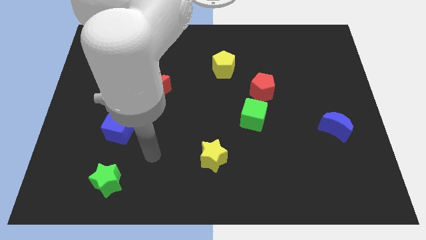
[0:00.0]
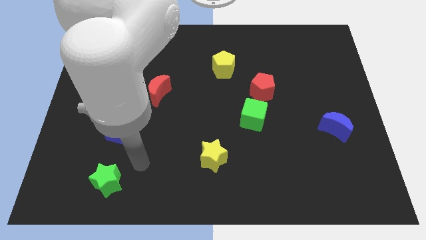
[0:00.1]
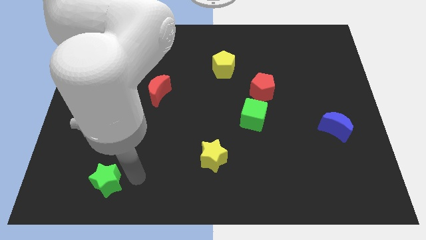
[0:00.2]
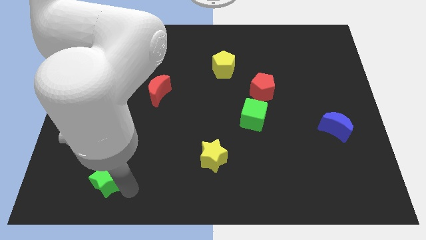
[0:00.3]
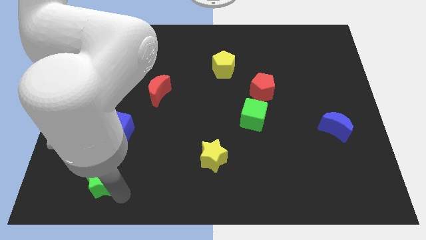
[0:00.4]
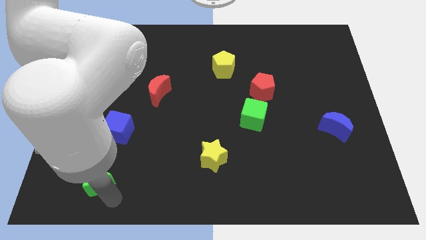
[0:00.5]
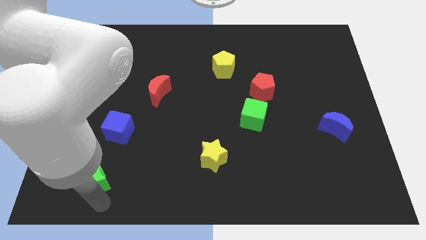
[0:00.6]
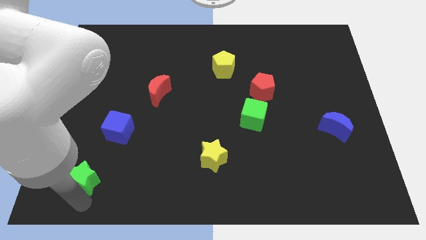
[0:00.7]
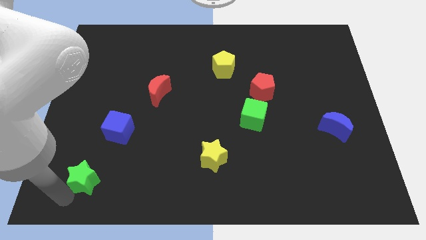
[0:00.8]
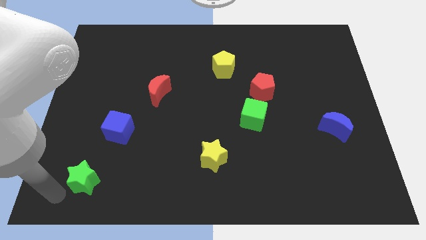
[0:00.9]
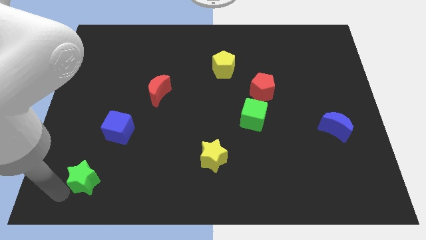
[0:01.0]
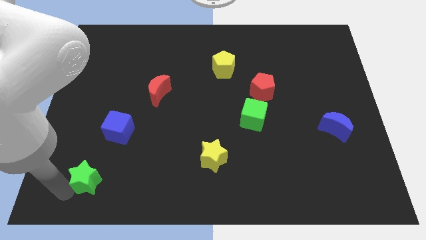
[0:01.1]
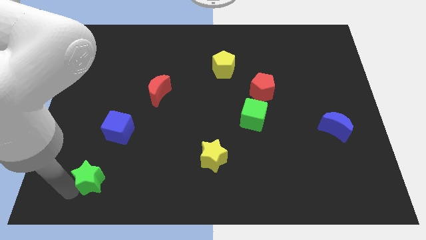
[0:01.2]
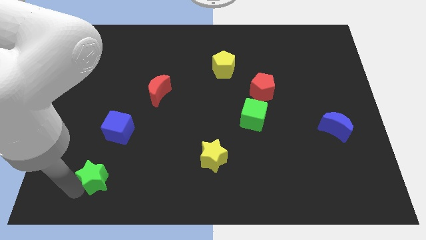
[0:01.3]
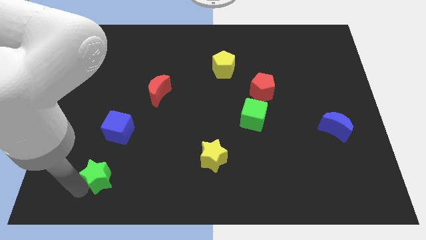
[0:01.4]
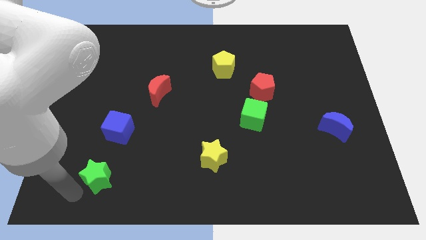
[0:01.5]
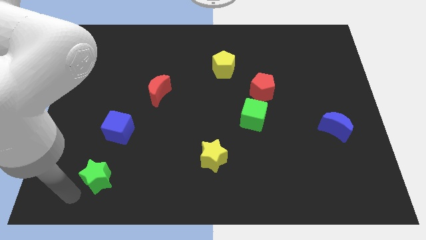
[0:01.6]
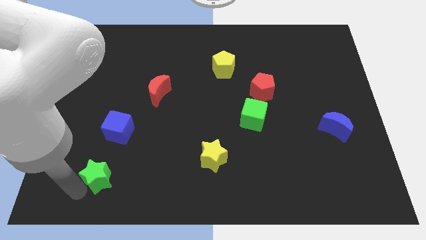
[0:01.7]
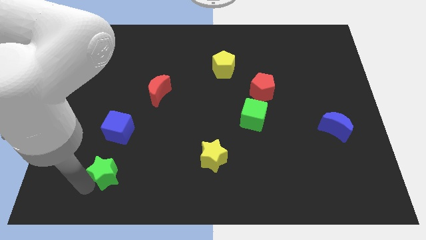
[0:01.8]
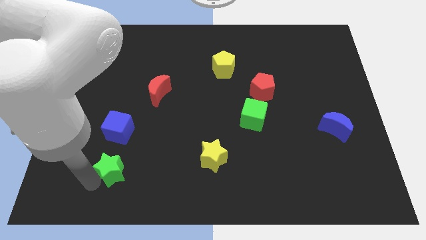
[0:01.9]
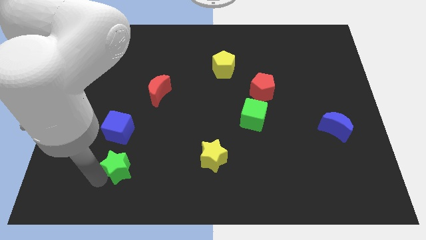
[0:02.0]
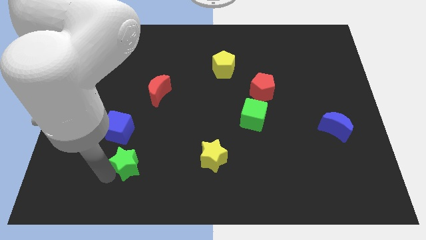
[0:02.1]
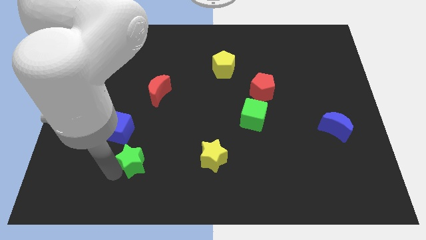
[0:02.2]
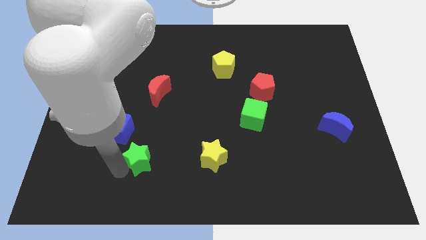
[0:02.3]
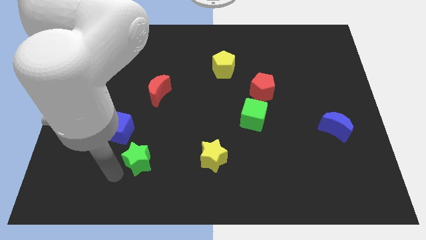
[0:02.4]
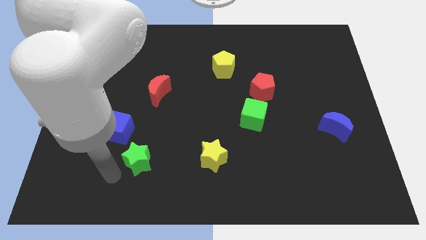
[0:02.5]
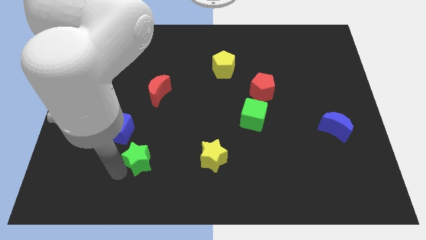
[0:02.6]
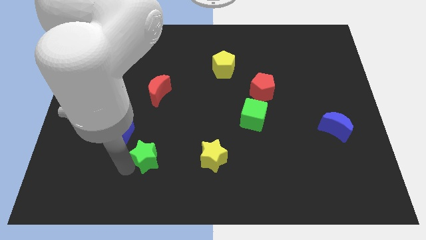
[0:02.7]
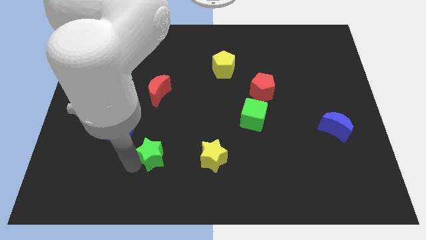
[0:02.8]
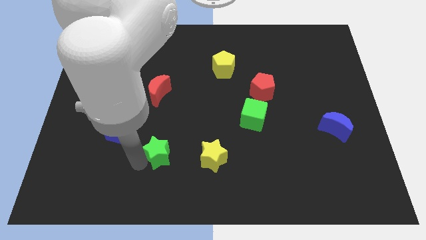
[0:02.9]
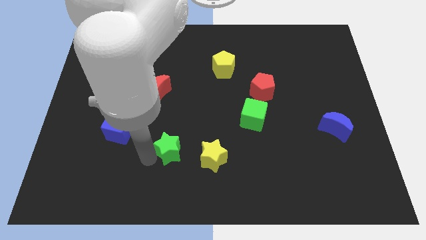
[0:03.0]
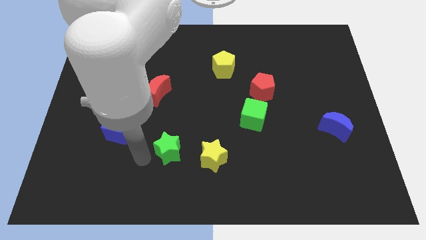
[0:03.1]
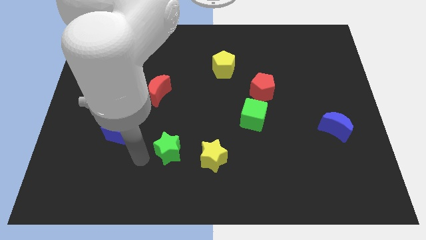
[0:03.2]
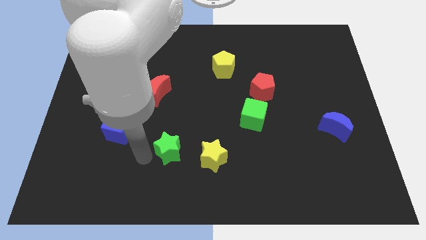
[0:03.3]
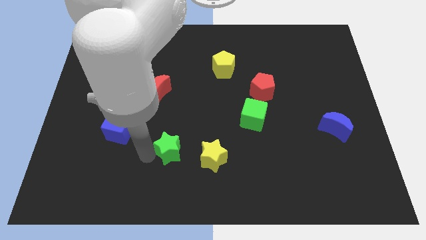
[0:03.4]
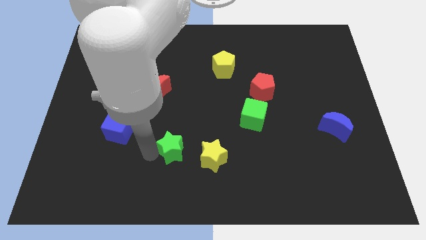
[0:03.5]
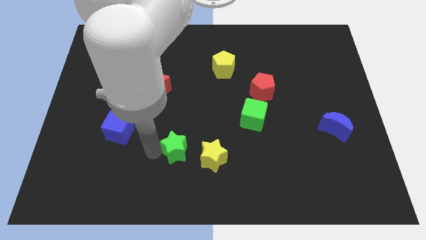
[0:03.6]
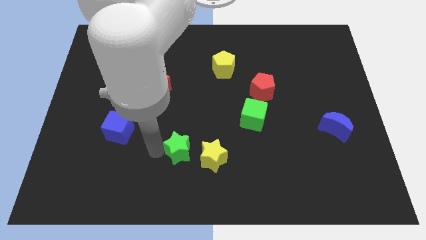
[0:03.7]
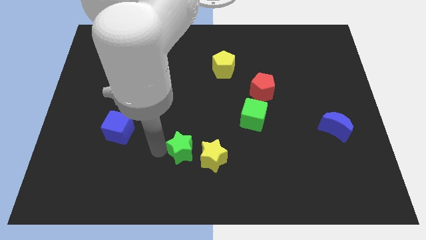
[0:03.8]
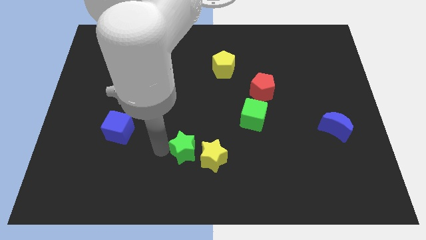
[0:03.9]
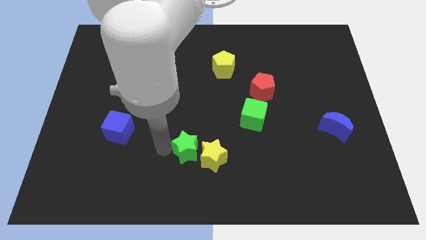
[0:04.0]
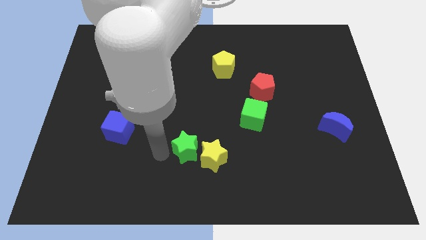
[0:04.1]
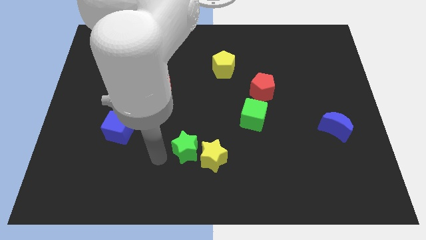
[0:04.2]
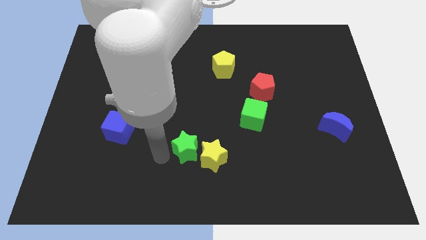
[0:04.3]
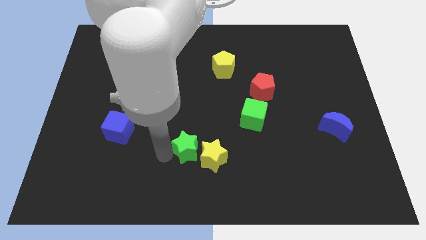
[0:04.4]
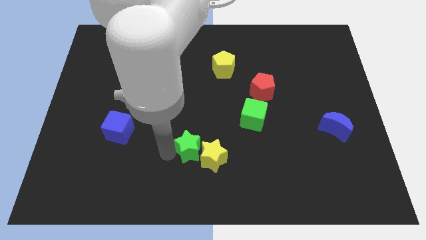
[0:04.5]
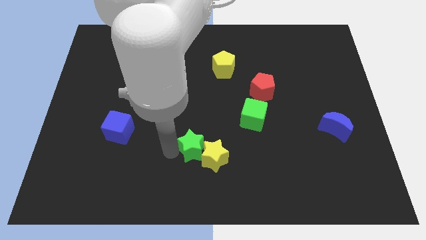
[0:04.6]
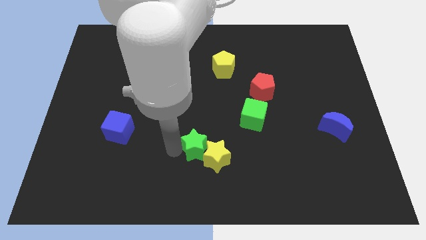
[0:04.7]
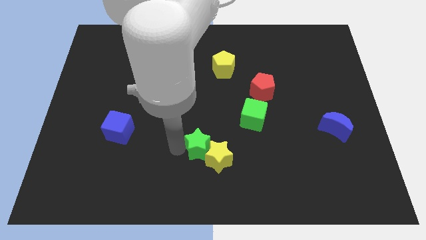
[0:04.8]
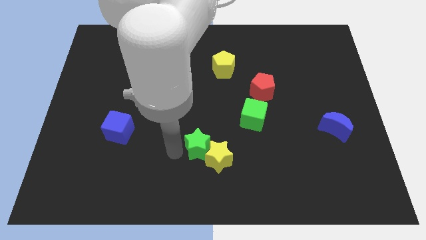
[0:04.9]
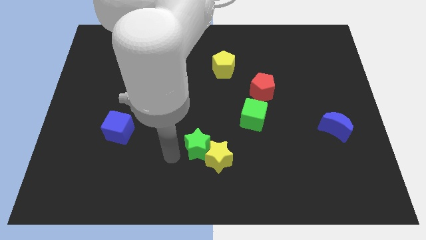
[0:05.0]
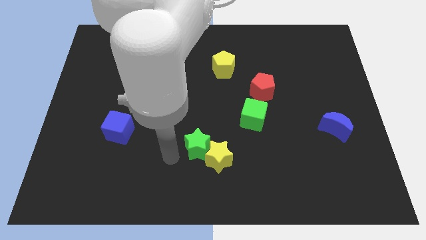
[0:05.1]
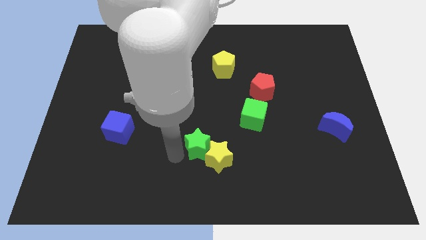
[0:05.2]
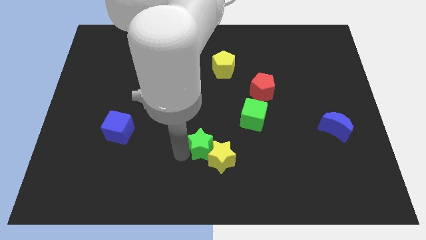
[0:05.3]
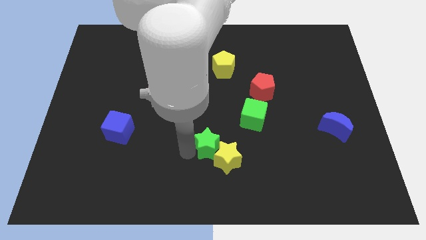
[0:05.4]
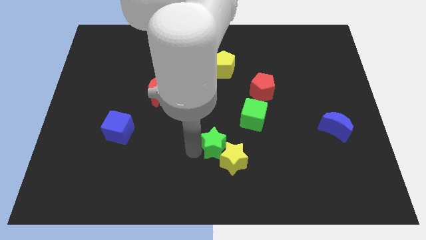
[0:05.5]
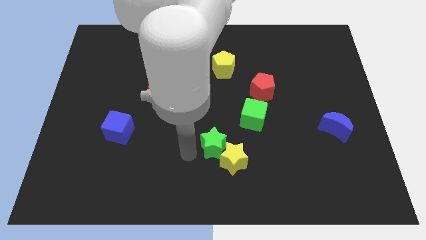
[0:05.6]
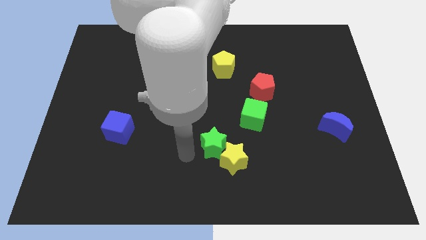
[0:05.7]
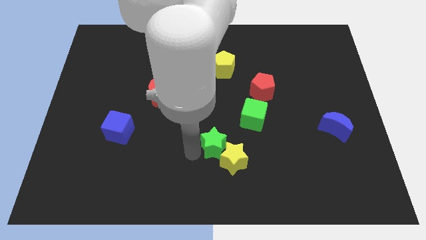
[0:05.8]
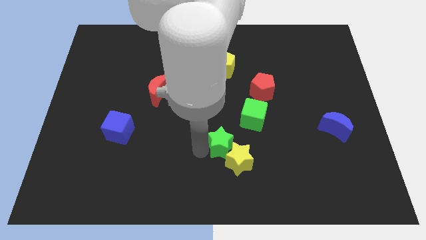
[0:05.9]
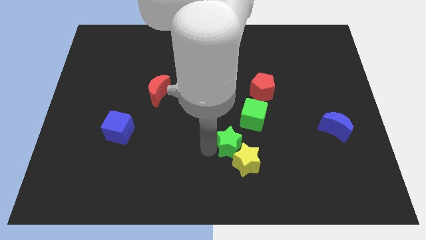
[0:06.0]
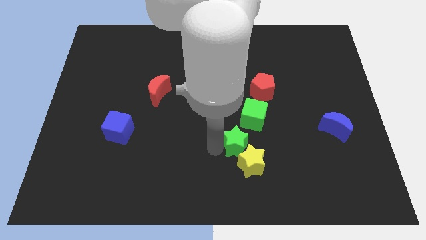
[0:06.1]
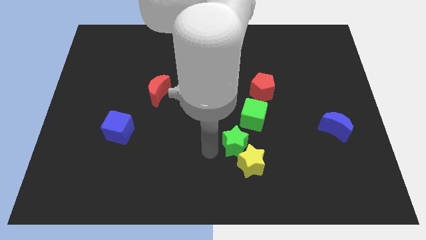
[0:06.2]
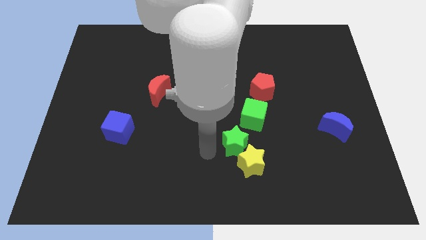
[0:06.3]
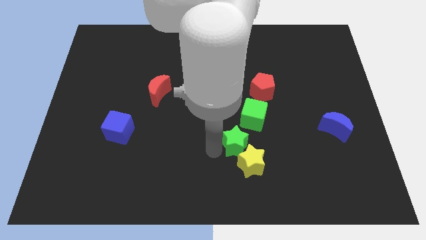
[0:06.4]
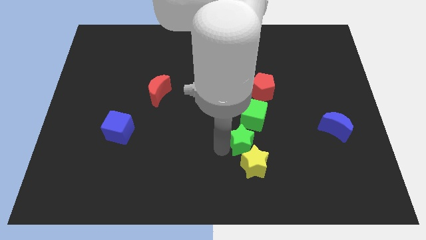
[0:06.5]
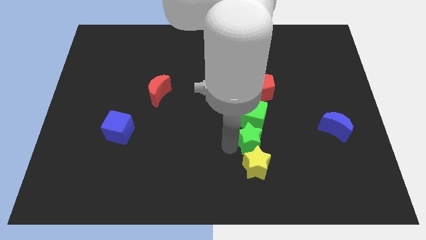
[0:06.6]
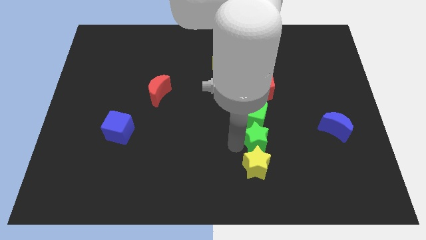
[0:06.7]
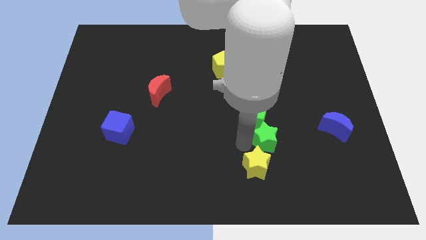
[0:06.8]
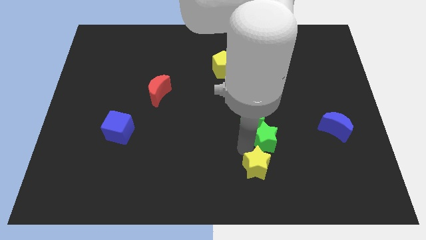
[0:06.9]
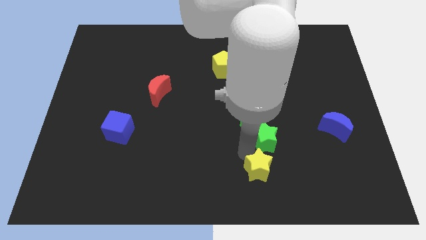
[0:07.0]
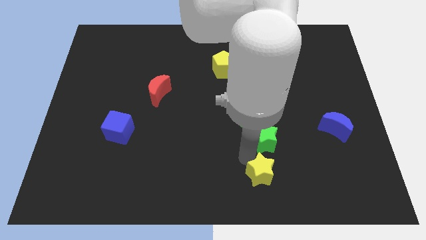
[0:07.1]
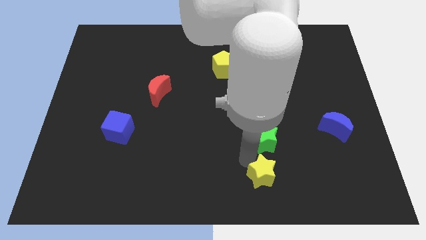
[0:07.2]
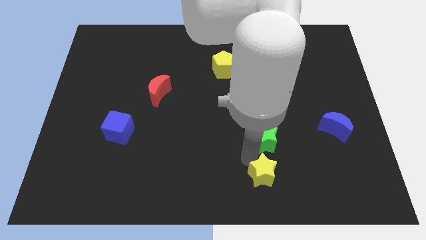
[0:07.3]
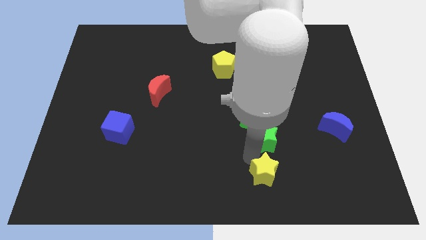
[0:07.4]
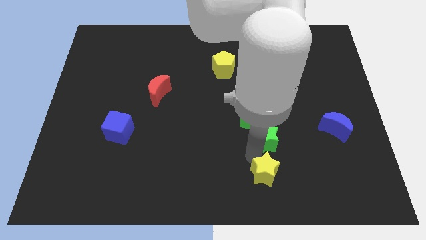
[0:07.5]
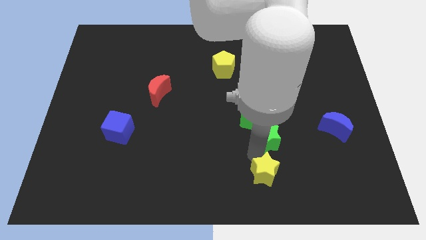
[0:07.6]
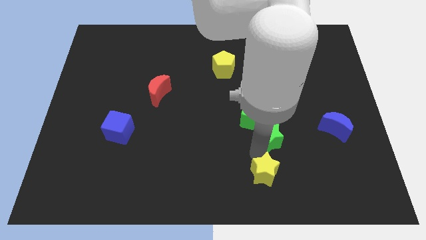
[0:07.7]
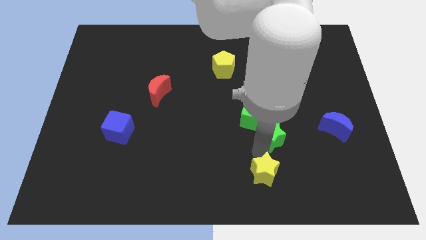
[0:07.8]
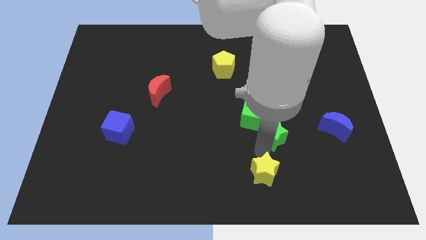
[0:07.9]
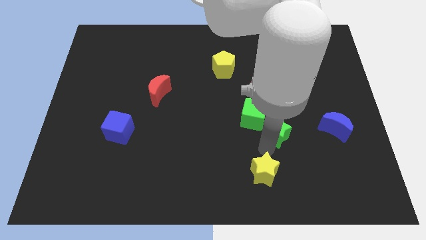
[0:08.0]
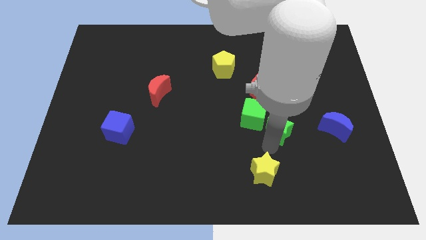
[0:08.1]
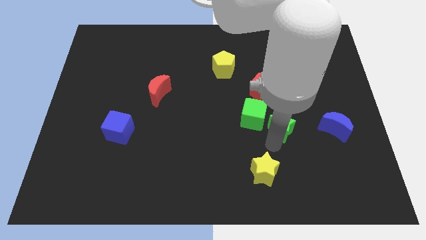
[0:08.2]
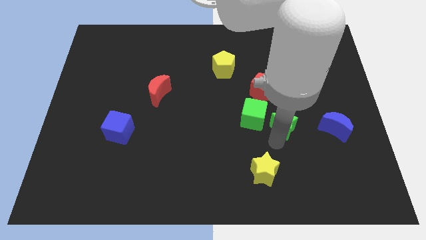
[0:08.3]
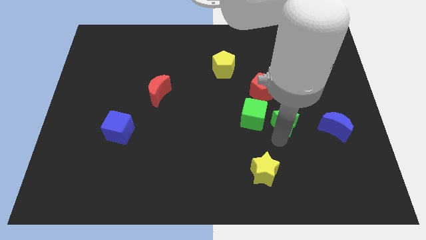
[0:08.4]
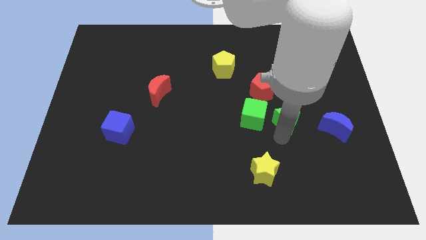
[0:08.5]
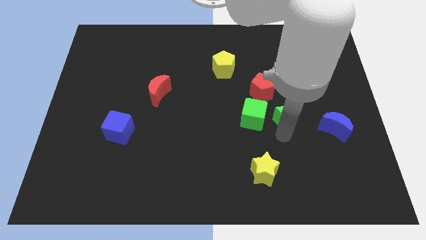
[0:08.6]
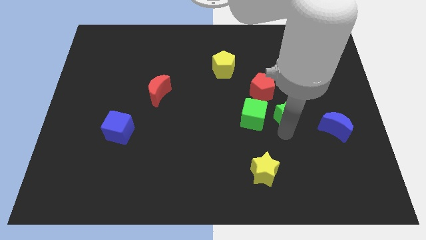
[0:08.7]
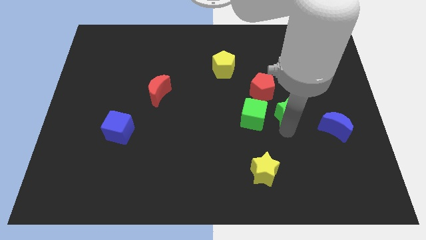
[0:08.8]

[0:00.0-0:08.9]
move the green star to the top right side of the green cube
